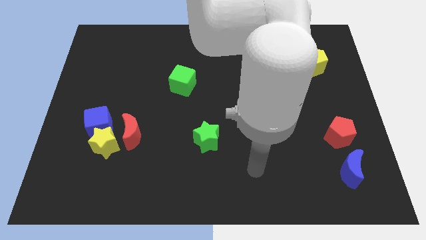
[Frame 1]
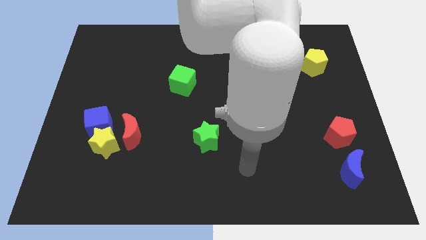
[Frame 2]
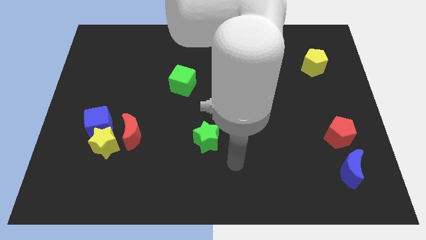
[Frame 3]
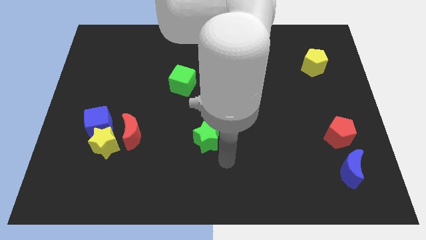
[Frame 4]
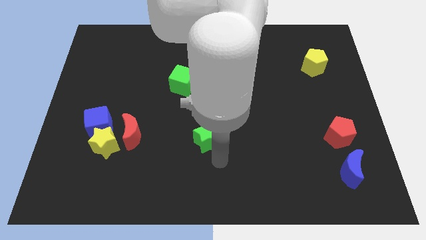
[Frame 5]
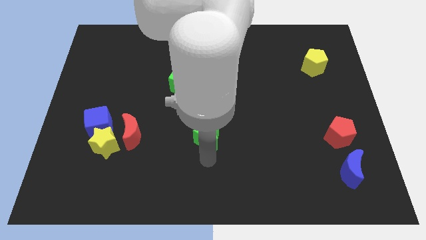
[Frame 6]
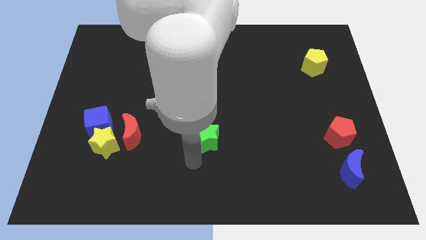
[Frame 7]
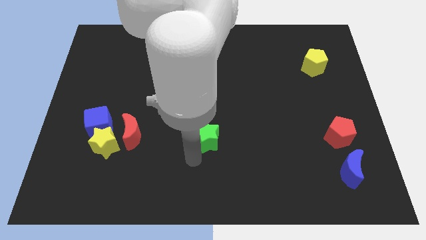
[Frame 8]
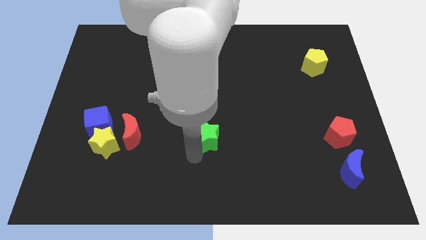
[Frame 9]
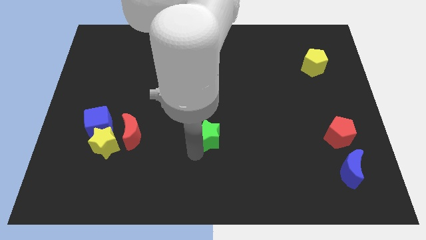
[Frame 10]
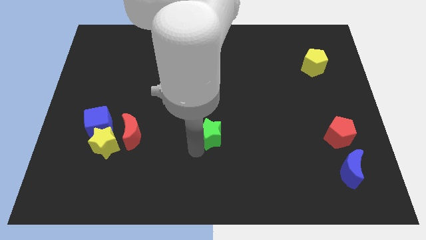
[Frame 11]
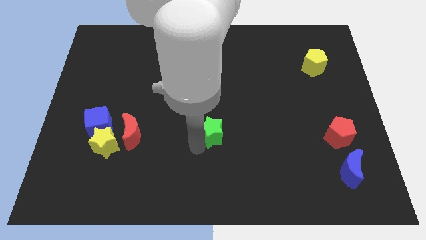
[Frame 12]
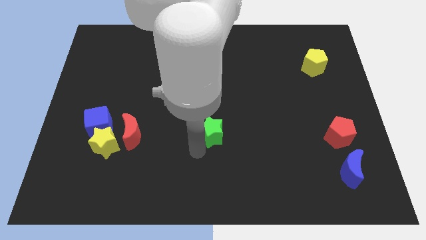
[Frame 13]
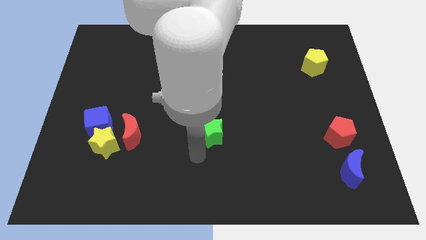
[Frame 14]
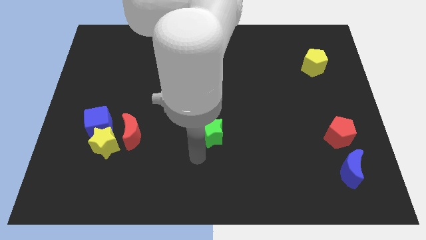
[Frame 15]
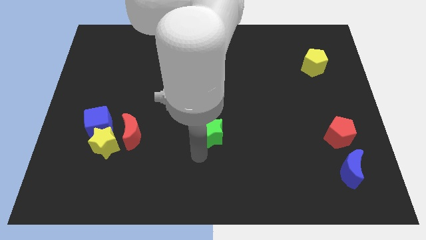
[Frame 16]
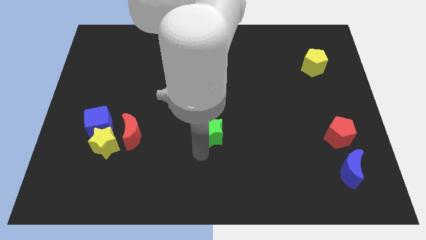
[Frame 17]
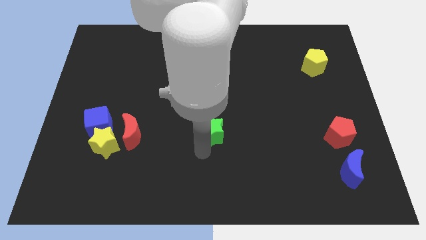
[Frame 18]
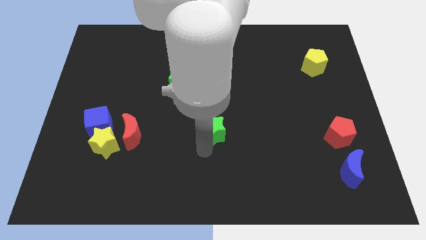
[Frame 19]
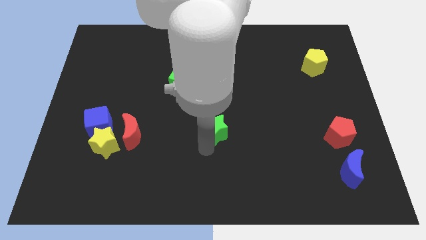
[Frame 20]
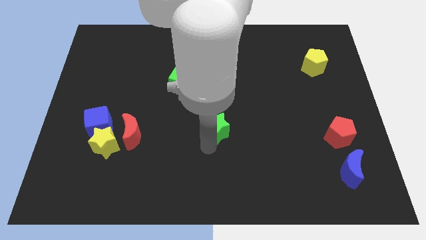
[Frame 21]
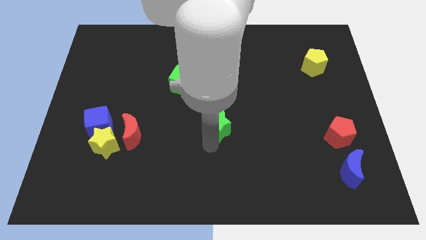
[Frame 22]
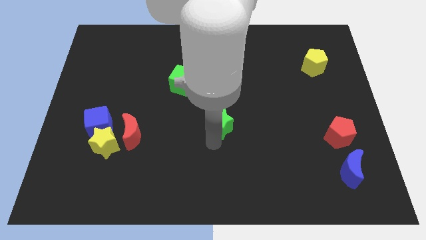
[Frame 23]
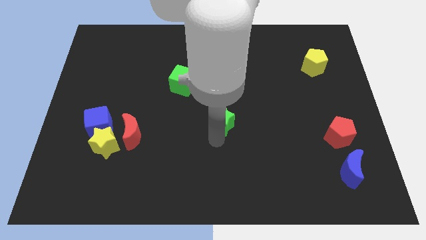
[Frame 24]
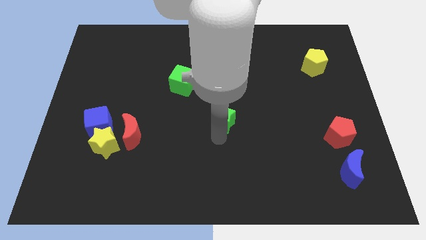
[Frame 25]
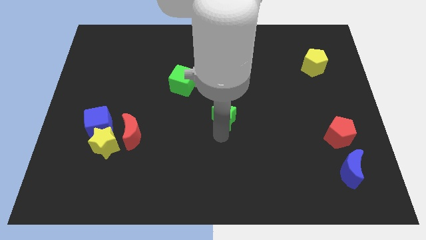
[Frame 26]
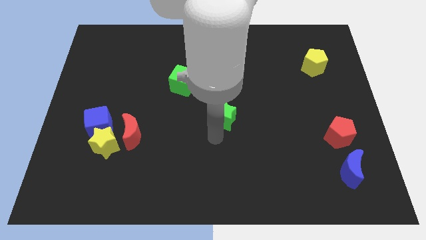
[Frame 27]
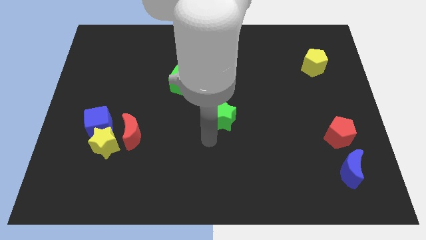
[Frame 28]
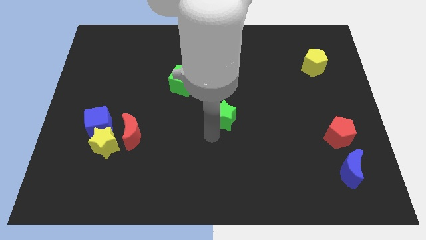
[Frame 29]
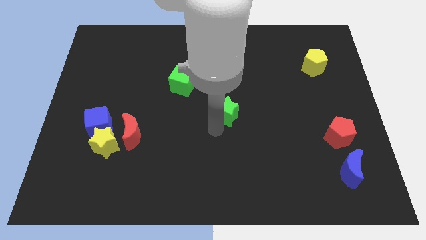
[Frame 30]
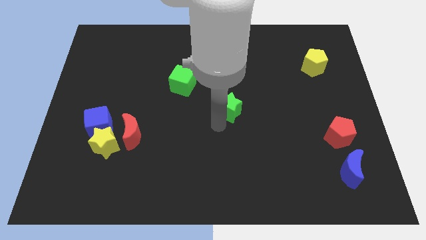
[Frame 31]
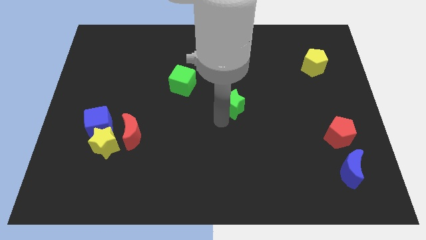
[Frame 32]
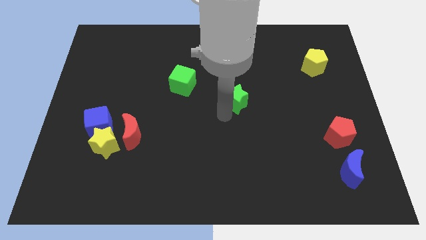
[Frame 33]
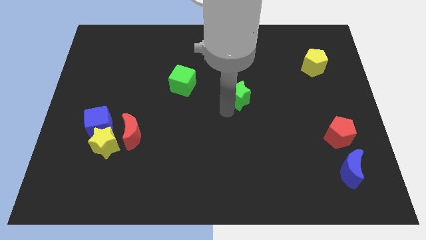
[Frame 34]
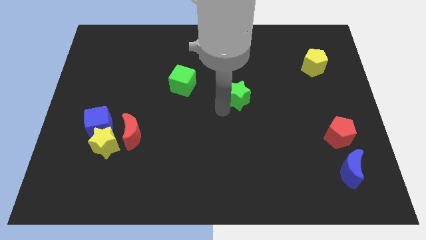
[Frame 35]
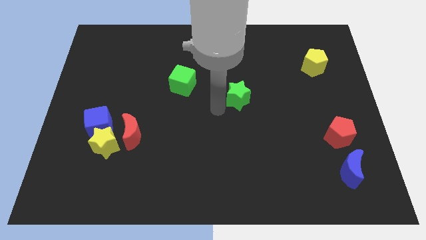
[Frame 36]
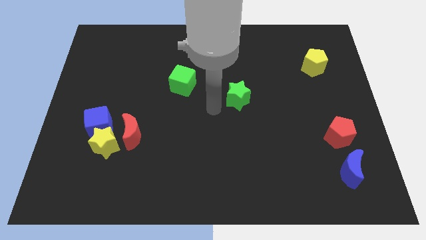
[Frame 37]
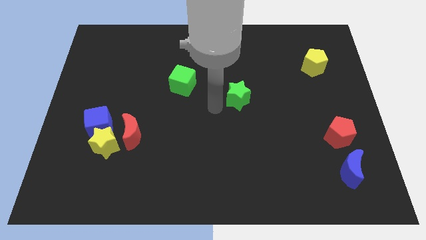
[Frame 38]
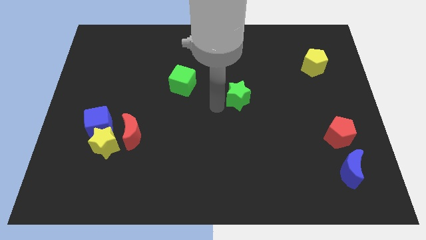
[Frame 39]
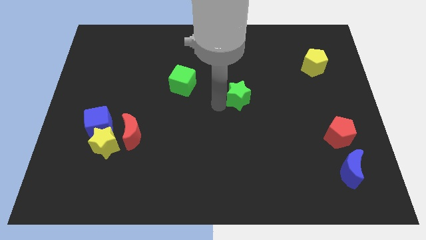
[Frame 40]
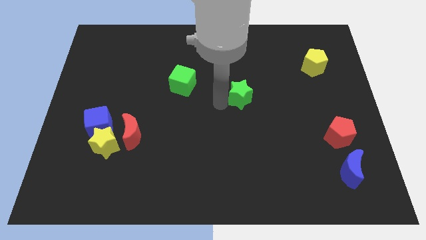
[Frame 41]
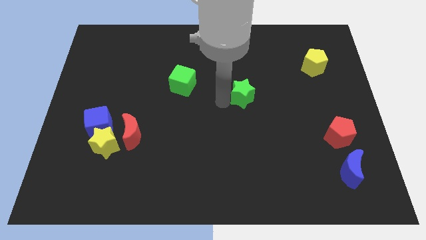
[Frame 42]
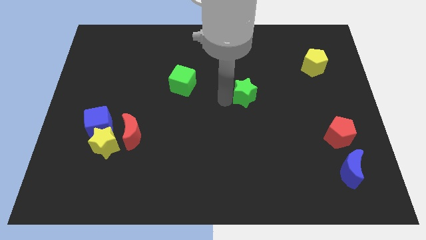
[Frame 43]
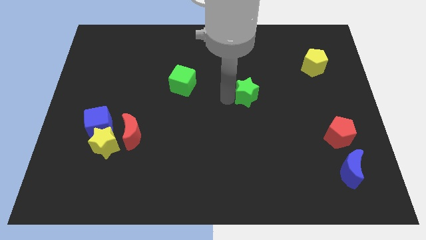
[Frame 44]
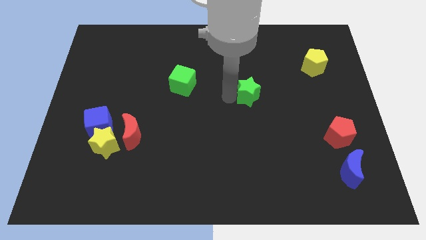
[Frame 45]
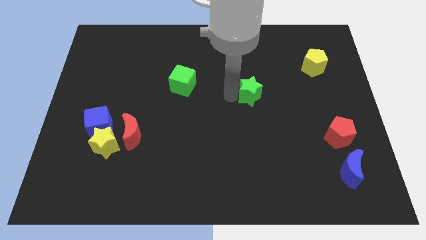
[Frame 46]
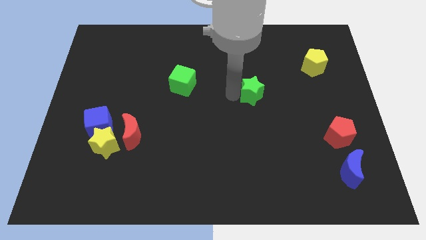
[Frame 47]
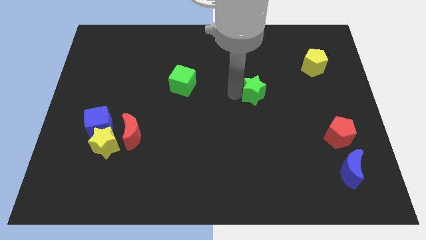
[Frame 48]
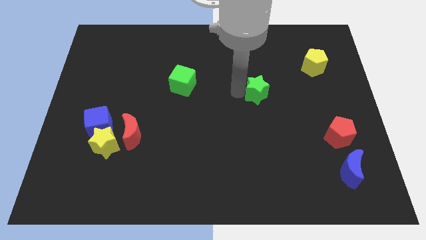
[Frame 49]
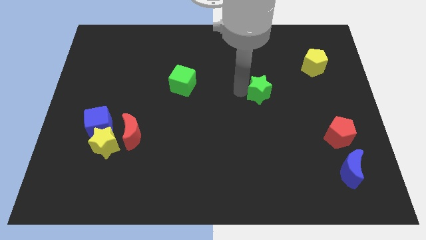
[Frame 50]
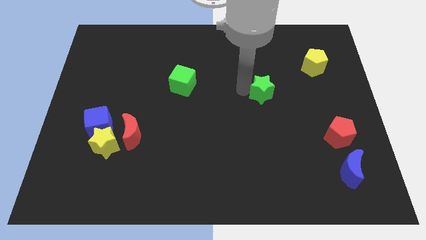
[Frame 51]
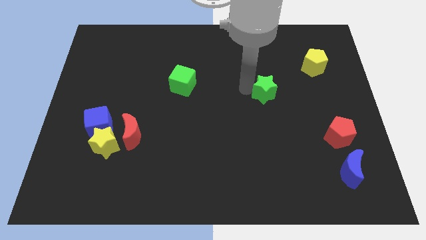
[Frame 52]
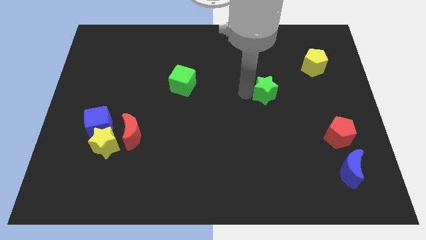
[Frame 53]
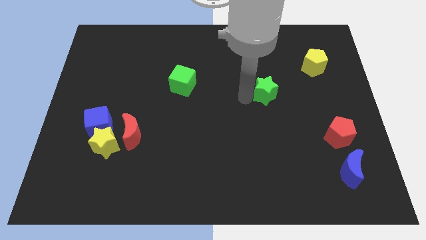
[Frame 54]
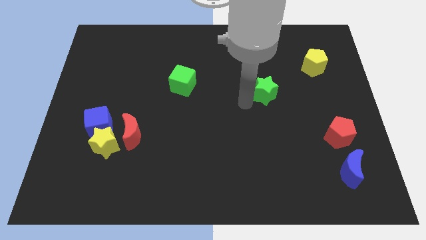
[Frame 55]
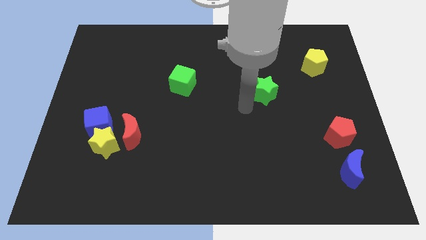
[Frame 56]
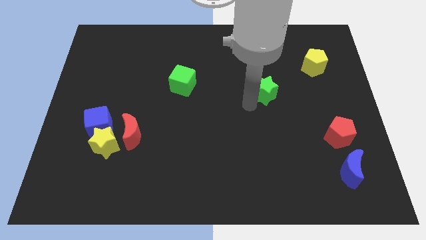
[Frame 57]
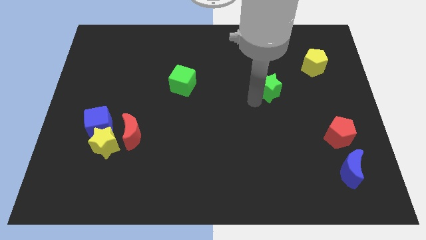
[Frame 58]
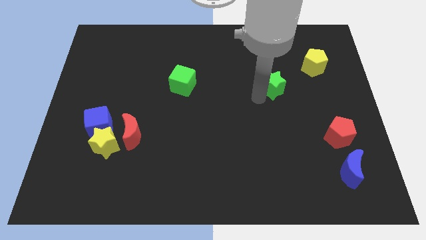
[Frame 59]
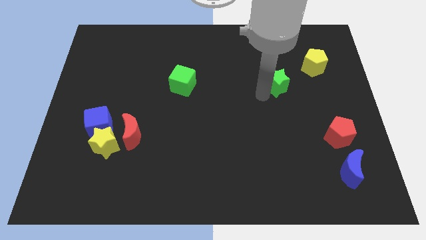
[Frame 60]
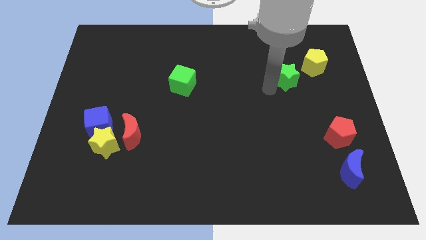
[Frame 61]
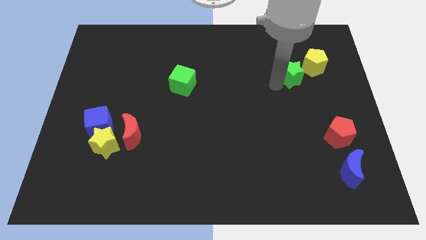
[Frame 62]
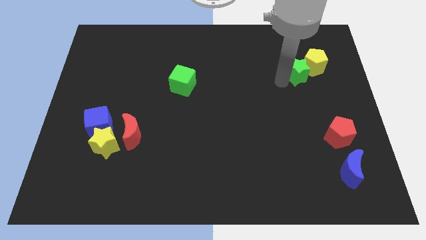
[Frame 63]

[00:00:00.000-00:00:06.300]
put the green star next to the yellow pentagon
